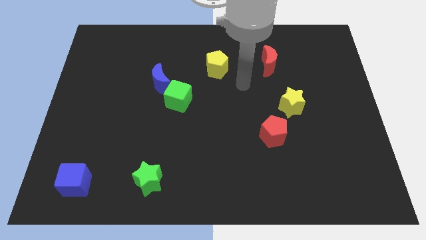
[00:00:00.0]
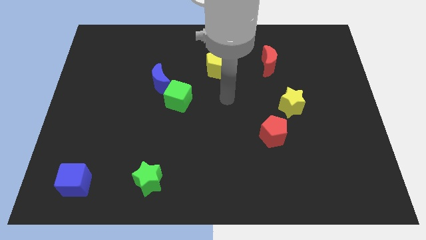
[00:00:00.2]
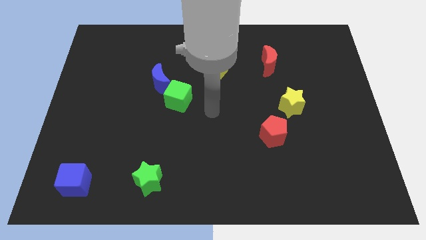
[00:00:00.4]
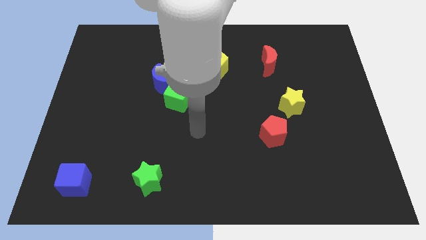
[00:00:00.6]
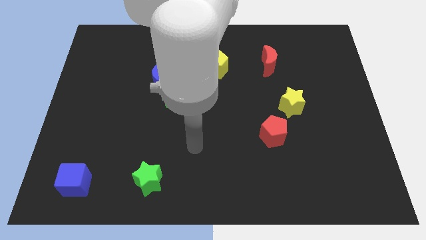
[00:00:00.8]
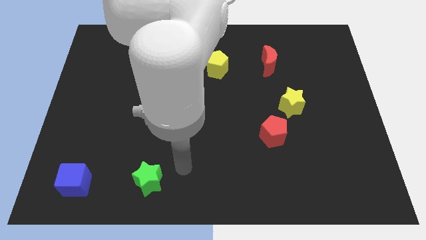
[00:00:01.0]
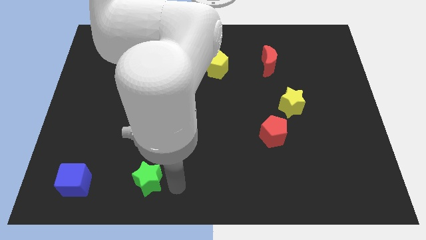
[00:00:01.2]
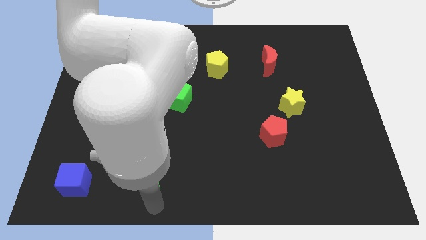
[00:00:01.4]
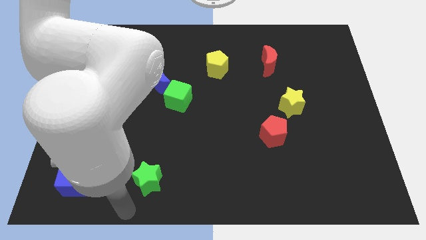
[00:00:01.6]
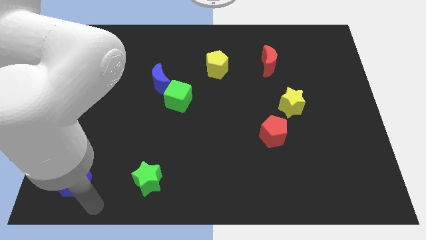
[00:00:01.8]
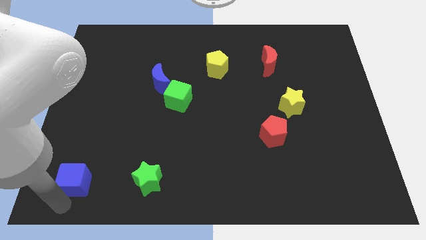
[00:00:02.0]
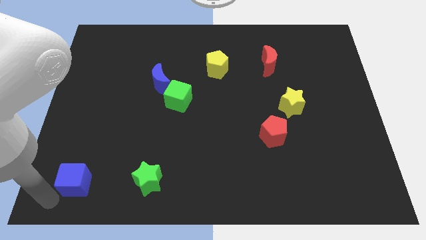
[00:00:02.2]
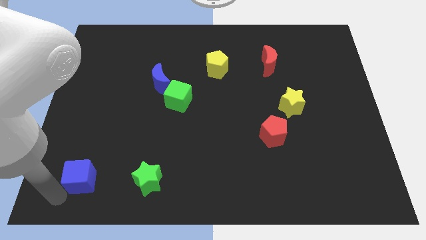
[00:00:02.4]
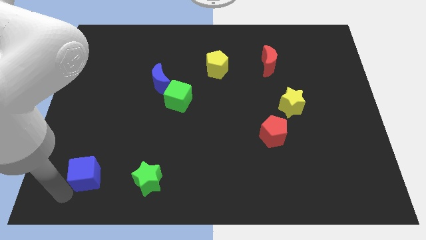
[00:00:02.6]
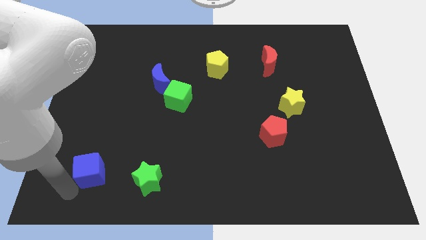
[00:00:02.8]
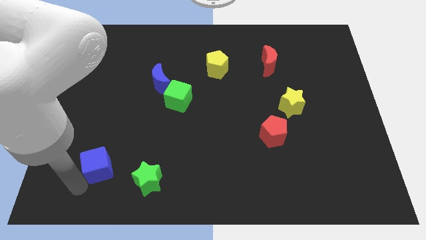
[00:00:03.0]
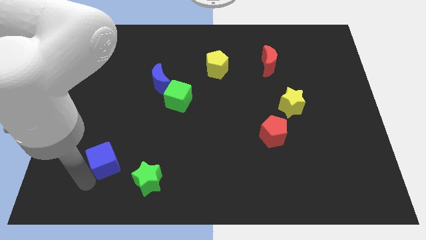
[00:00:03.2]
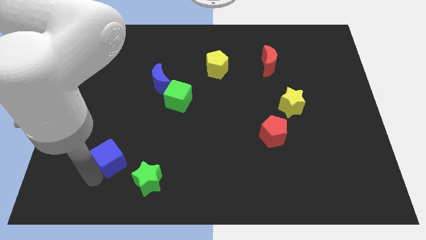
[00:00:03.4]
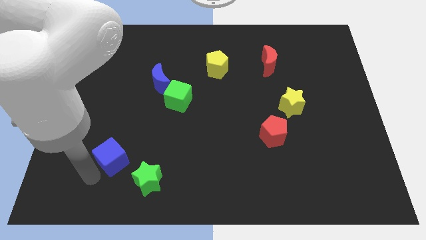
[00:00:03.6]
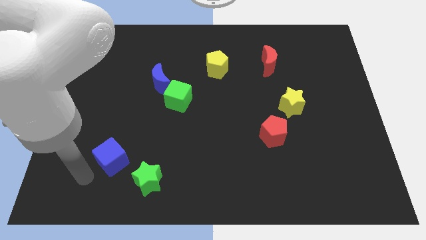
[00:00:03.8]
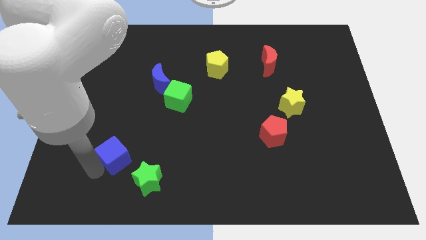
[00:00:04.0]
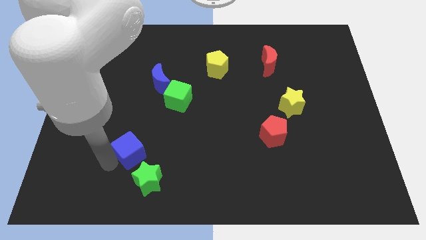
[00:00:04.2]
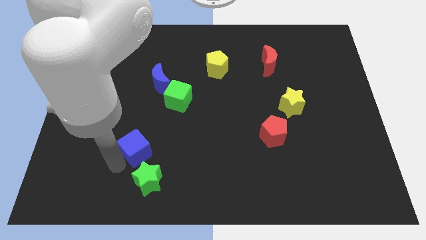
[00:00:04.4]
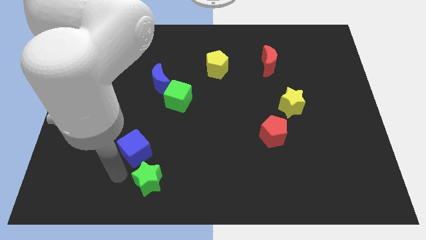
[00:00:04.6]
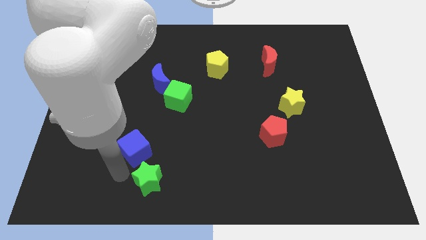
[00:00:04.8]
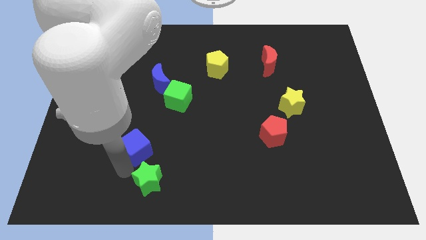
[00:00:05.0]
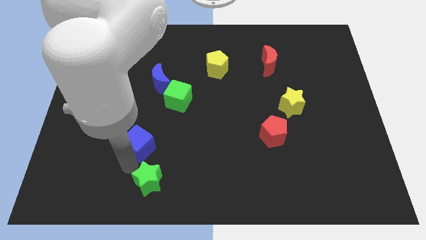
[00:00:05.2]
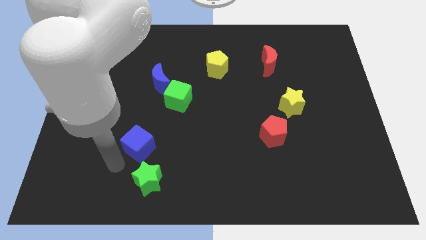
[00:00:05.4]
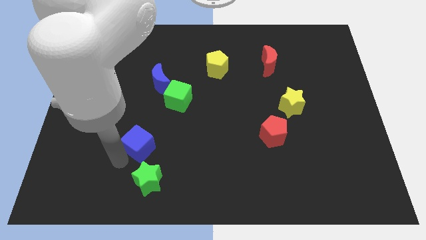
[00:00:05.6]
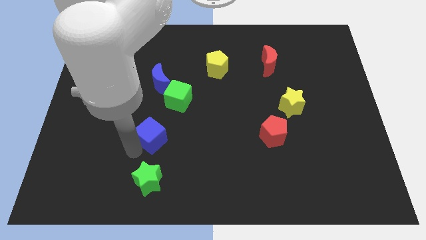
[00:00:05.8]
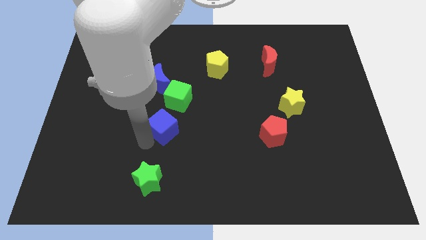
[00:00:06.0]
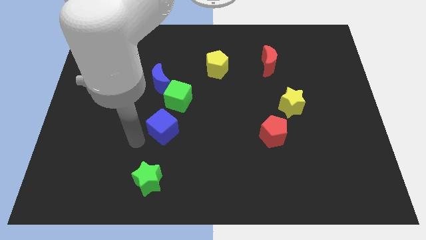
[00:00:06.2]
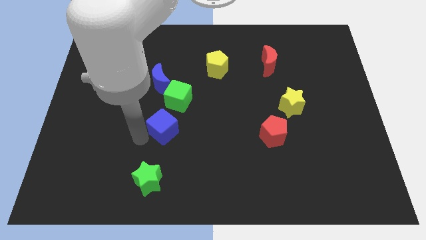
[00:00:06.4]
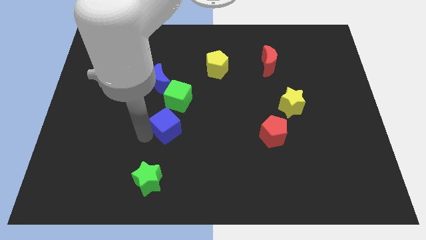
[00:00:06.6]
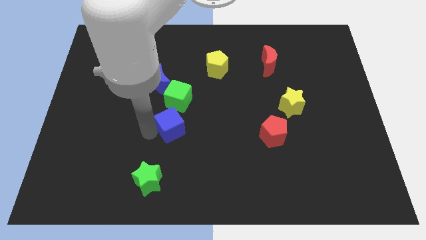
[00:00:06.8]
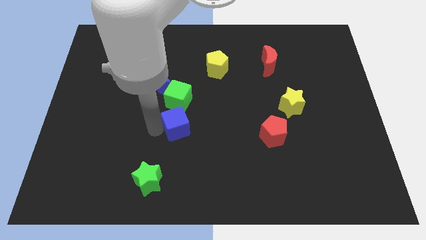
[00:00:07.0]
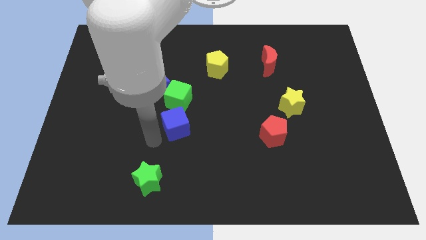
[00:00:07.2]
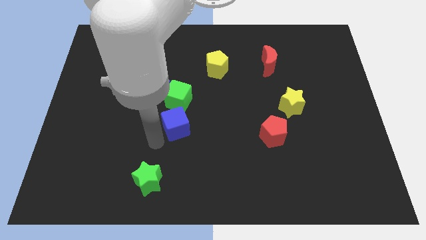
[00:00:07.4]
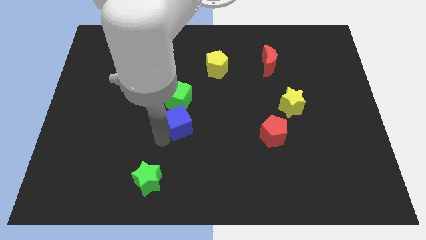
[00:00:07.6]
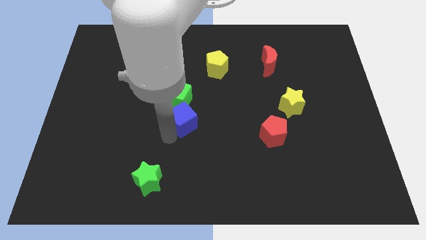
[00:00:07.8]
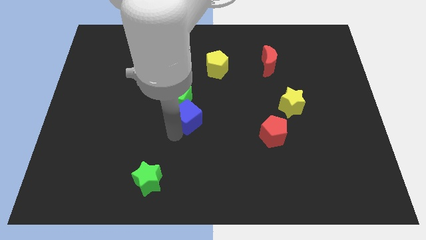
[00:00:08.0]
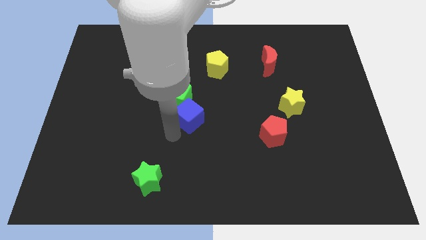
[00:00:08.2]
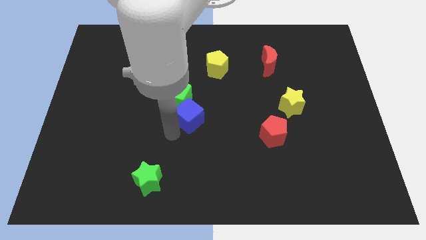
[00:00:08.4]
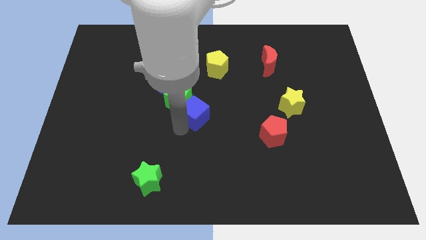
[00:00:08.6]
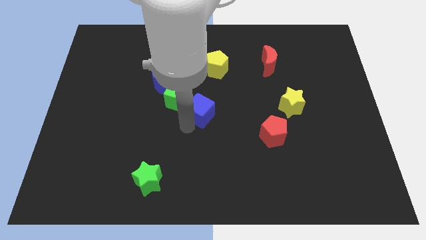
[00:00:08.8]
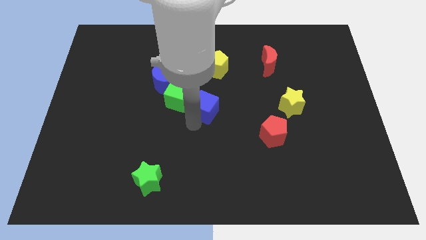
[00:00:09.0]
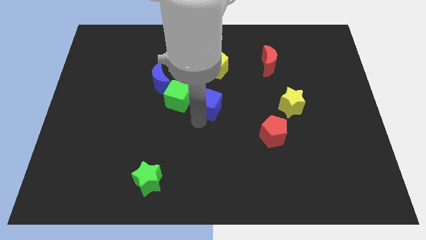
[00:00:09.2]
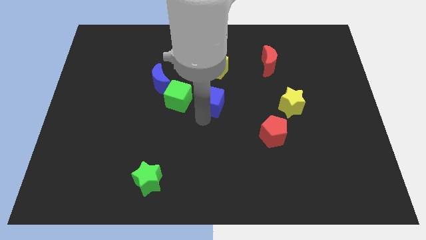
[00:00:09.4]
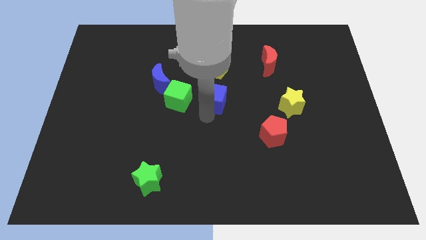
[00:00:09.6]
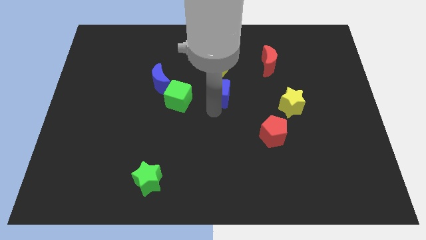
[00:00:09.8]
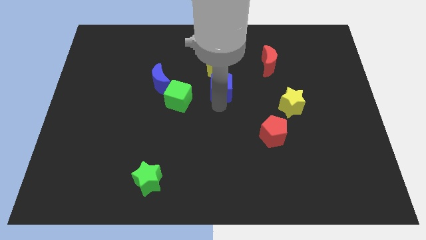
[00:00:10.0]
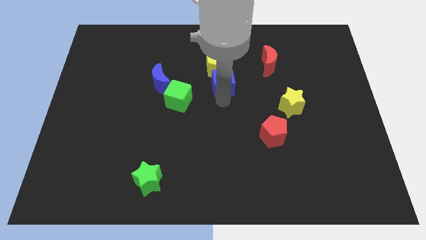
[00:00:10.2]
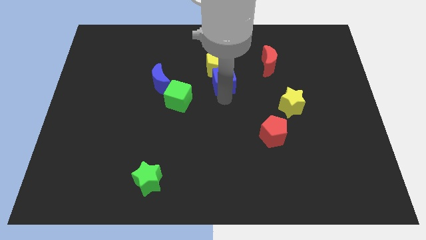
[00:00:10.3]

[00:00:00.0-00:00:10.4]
put the blue cube towards the yellow pentagon

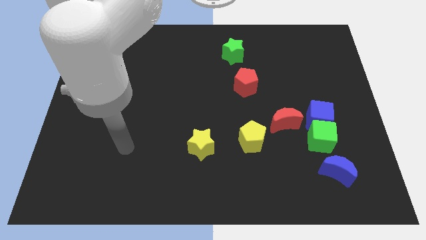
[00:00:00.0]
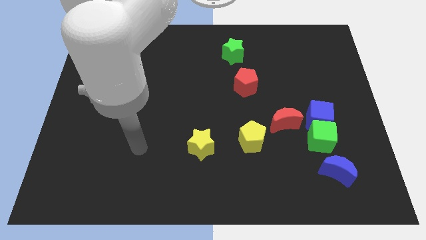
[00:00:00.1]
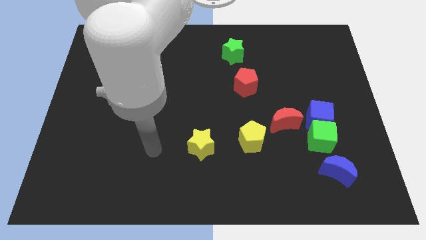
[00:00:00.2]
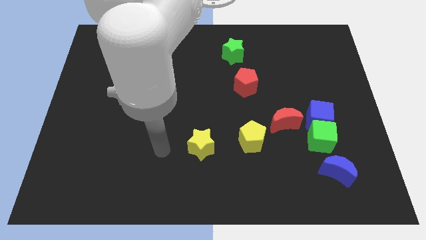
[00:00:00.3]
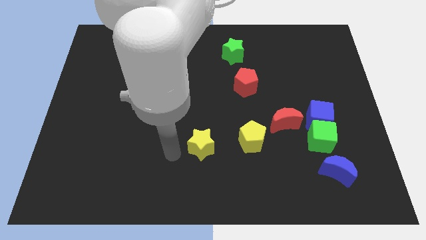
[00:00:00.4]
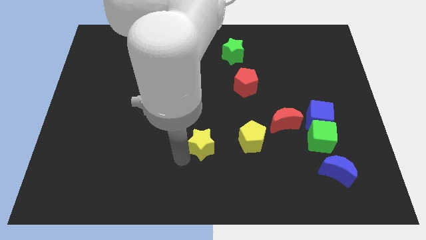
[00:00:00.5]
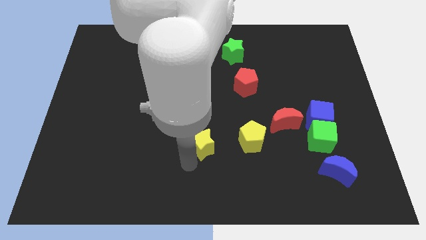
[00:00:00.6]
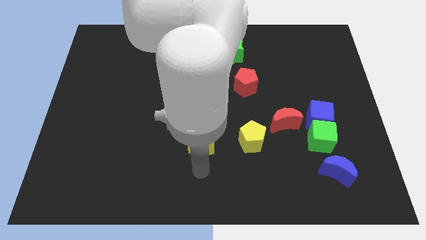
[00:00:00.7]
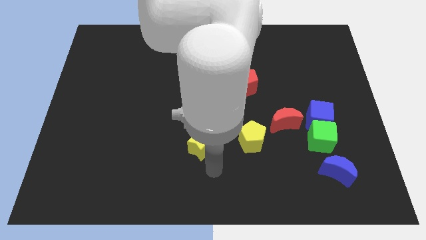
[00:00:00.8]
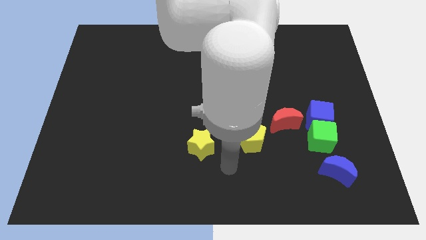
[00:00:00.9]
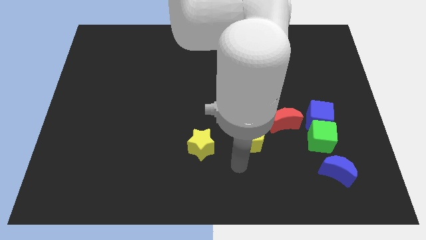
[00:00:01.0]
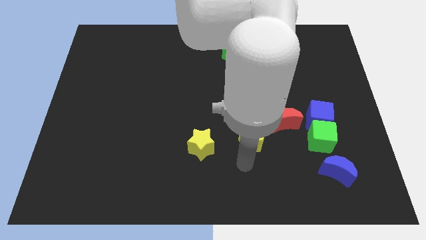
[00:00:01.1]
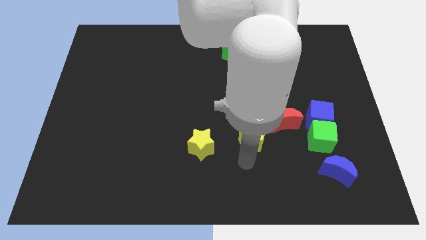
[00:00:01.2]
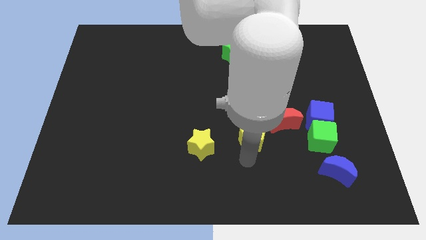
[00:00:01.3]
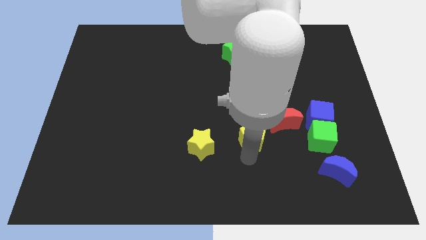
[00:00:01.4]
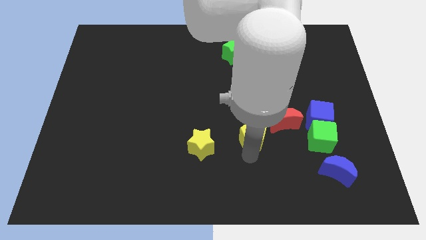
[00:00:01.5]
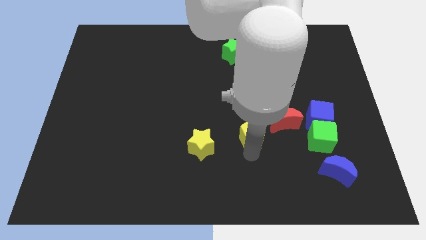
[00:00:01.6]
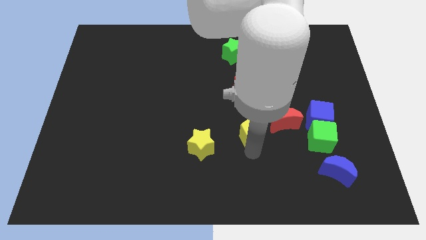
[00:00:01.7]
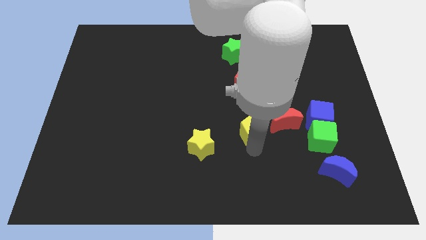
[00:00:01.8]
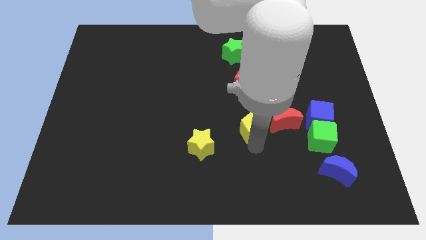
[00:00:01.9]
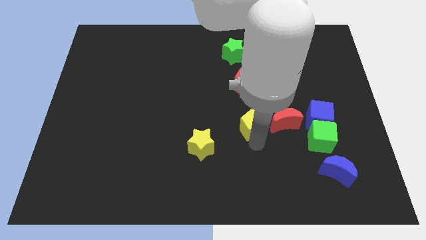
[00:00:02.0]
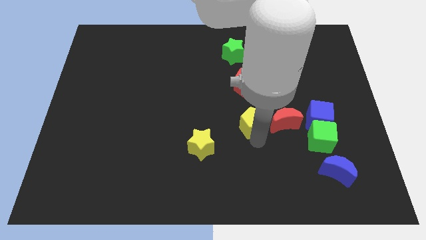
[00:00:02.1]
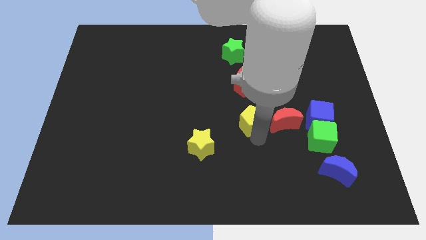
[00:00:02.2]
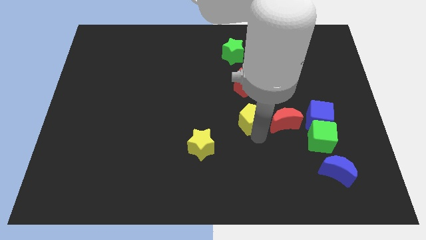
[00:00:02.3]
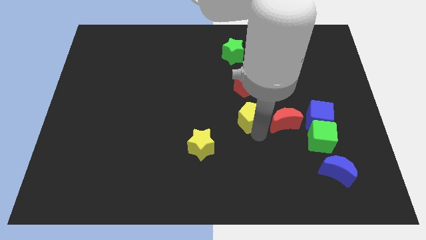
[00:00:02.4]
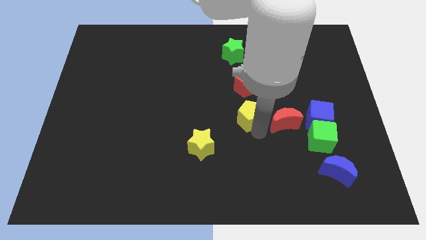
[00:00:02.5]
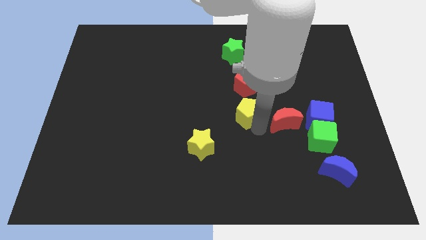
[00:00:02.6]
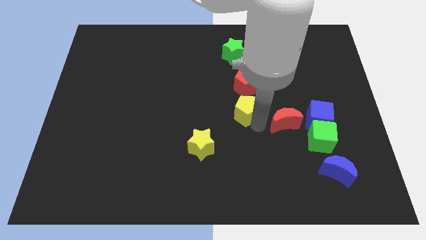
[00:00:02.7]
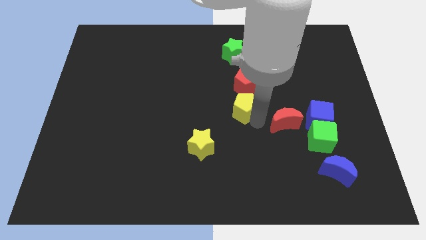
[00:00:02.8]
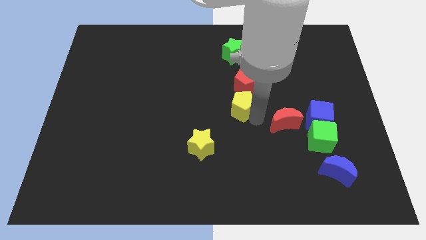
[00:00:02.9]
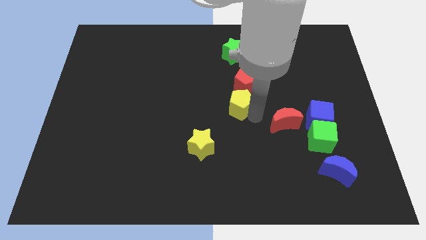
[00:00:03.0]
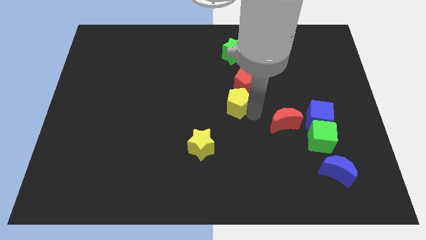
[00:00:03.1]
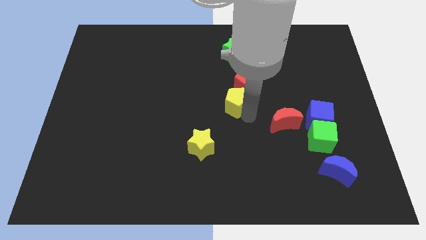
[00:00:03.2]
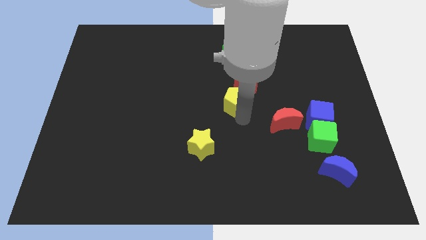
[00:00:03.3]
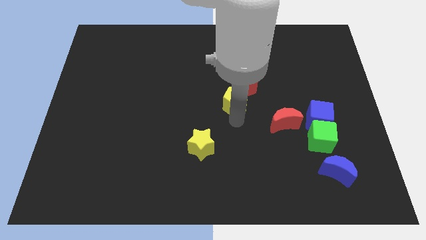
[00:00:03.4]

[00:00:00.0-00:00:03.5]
push the yellow pentagon close to the red pentagon
